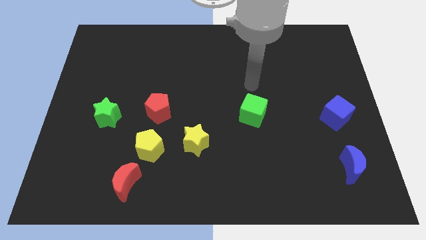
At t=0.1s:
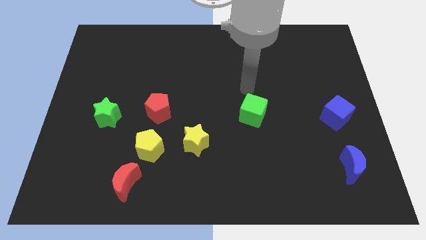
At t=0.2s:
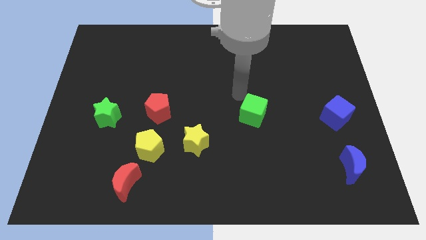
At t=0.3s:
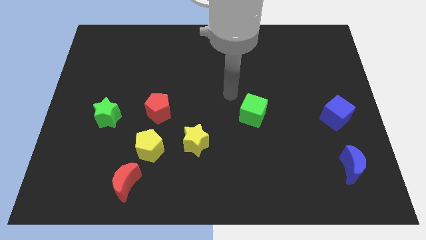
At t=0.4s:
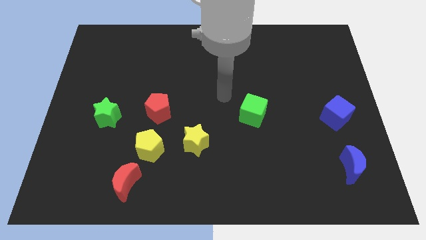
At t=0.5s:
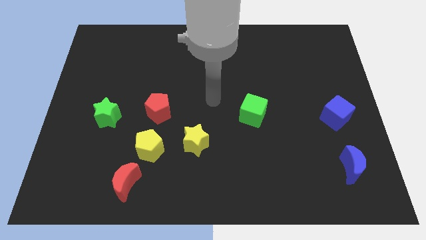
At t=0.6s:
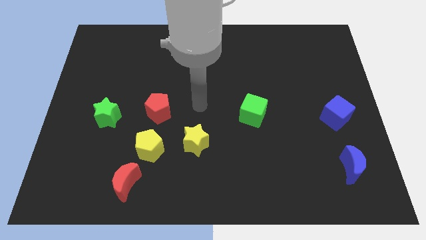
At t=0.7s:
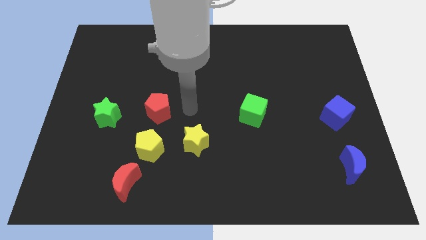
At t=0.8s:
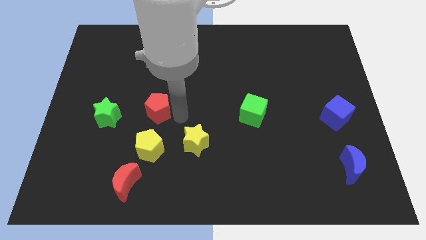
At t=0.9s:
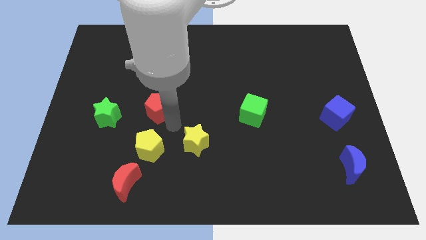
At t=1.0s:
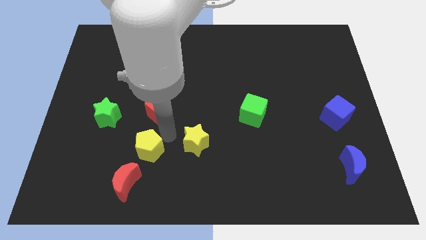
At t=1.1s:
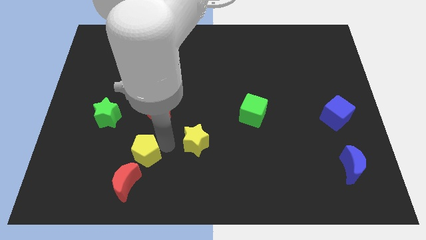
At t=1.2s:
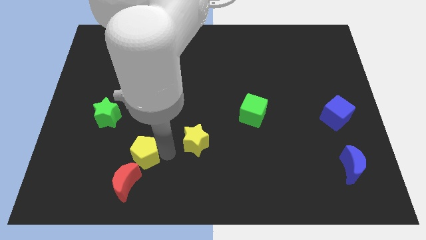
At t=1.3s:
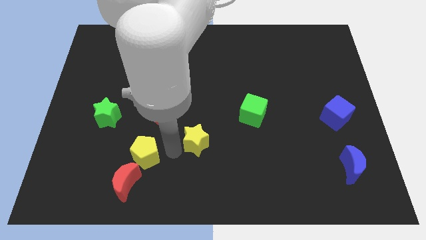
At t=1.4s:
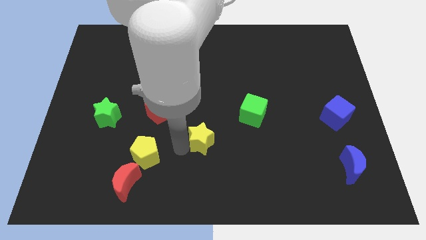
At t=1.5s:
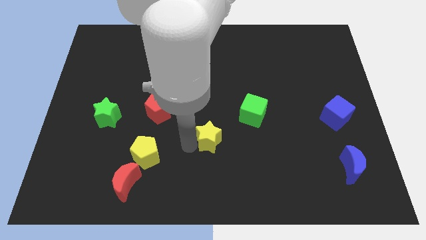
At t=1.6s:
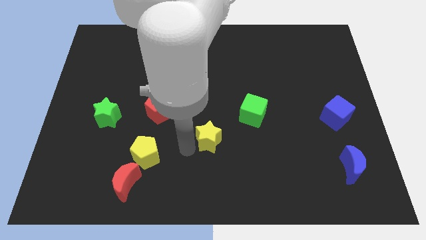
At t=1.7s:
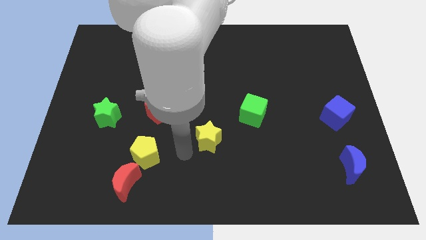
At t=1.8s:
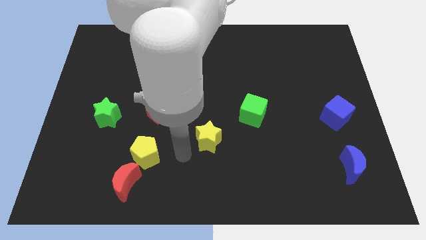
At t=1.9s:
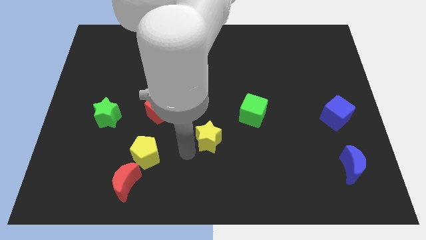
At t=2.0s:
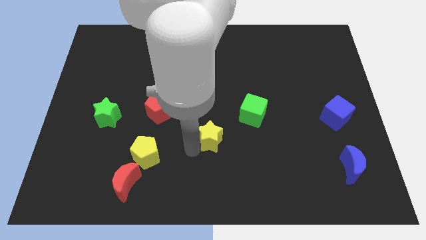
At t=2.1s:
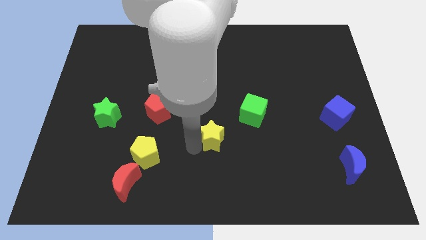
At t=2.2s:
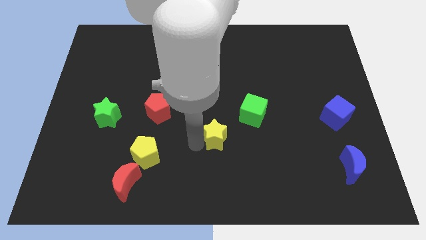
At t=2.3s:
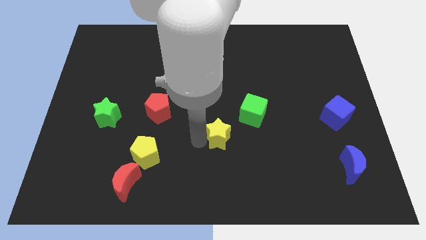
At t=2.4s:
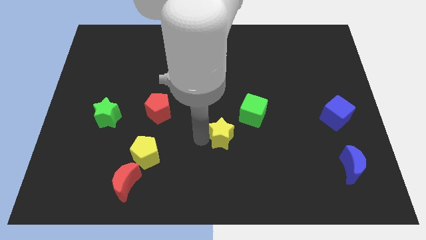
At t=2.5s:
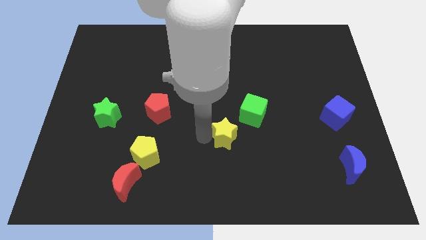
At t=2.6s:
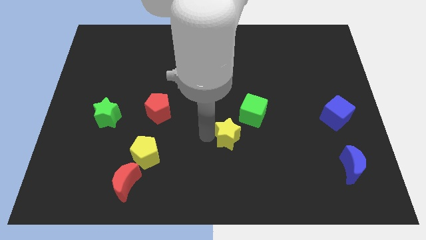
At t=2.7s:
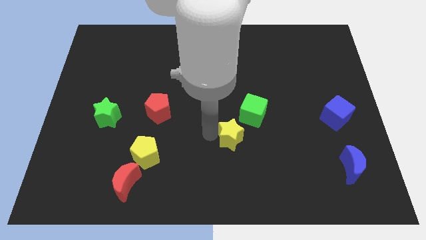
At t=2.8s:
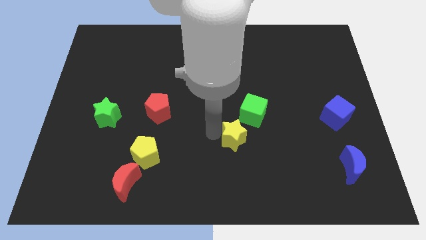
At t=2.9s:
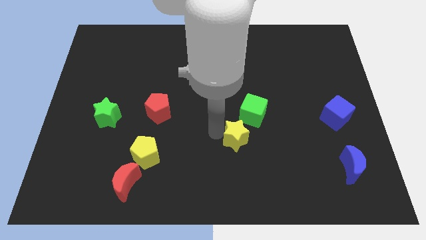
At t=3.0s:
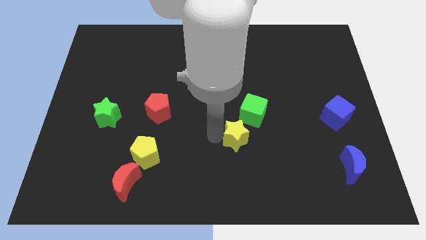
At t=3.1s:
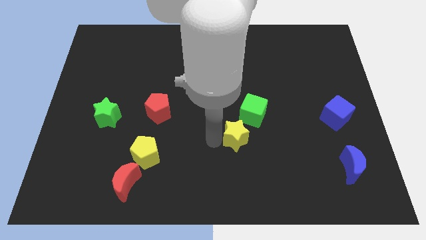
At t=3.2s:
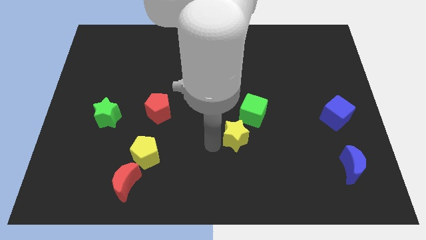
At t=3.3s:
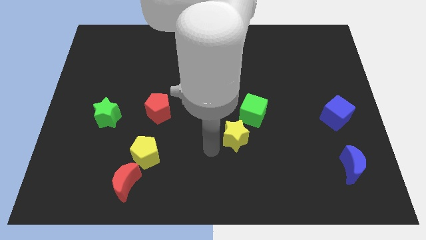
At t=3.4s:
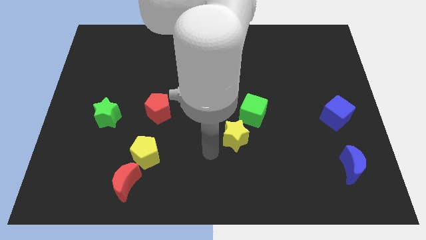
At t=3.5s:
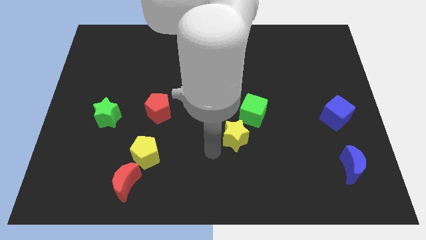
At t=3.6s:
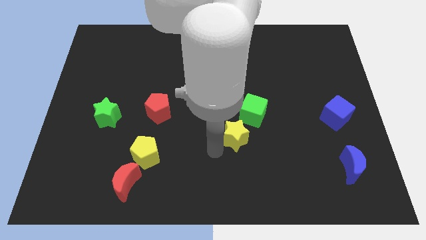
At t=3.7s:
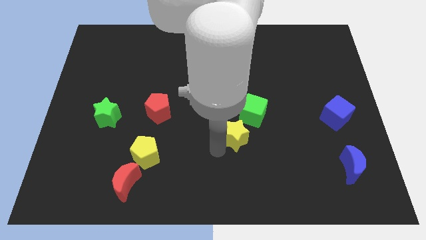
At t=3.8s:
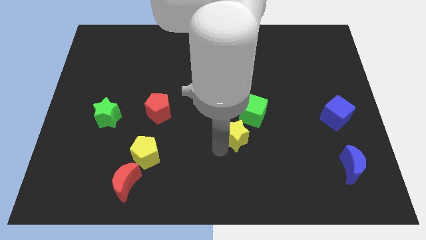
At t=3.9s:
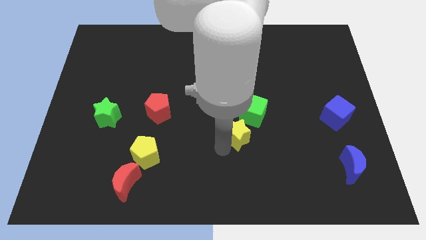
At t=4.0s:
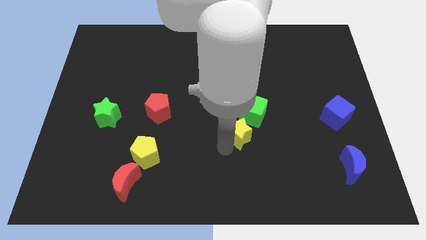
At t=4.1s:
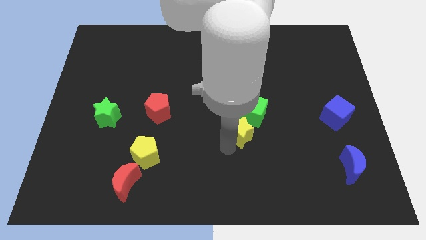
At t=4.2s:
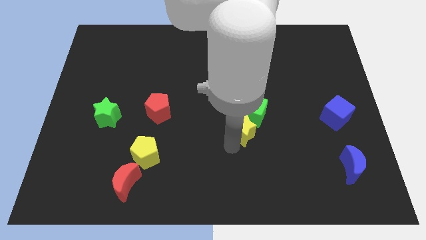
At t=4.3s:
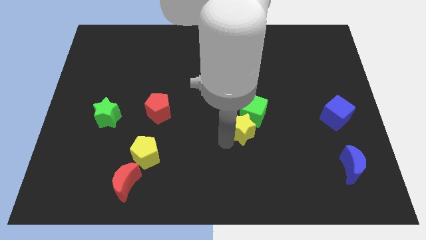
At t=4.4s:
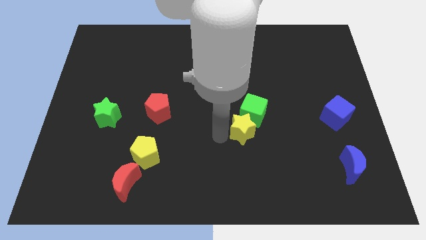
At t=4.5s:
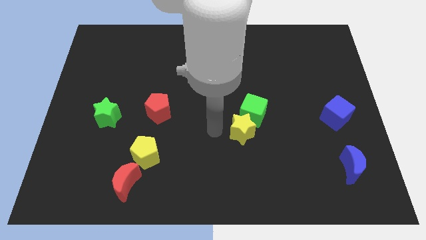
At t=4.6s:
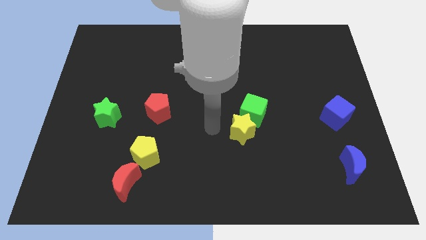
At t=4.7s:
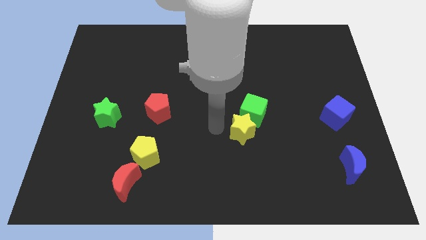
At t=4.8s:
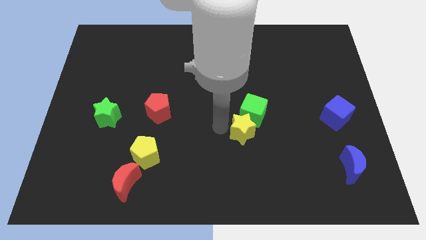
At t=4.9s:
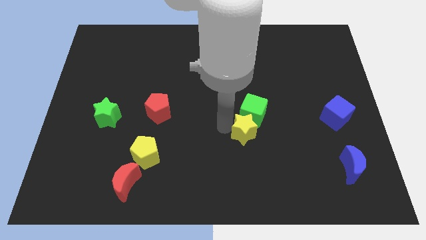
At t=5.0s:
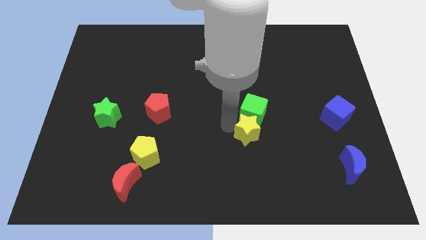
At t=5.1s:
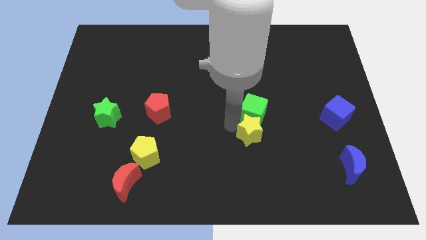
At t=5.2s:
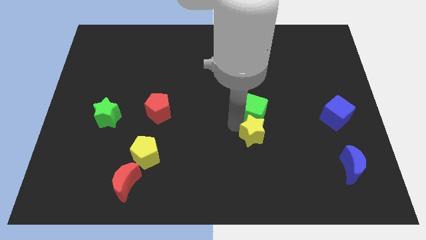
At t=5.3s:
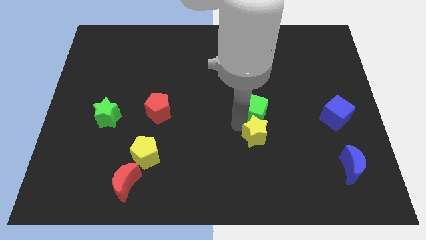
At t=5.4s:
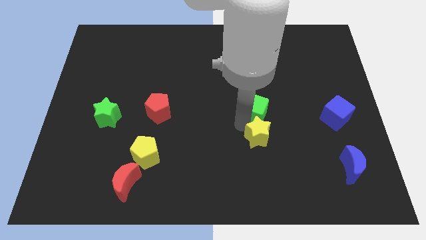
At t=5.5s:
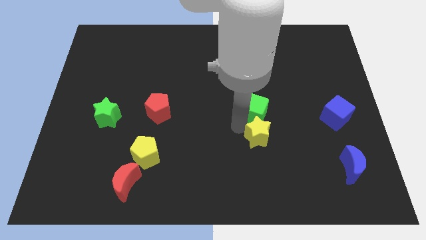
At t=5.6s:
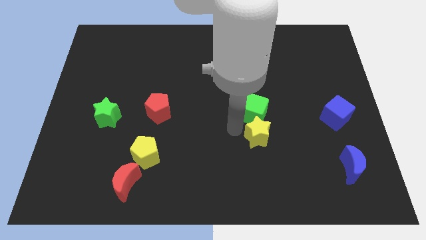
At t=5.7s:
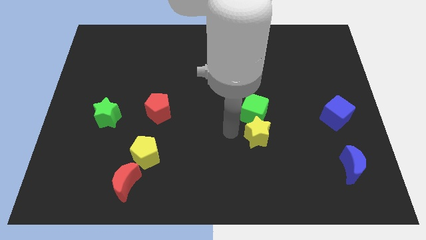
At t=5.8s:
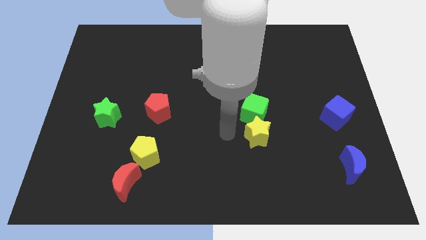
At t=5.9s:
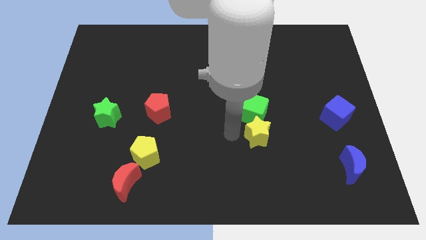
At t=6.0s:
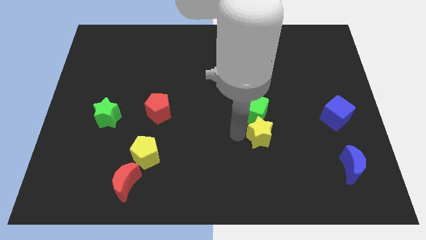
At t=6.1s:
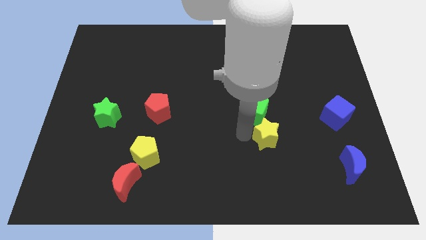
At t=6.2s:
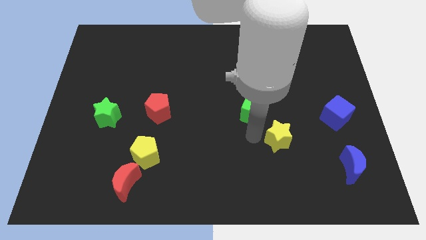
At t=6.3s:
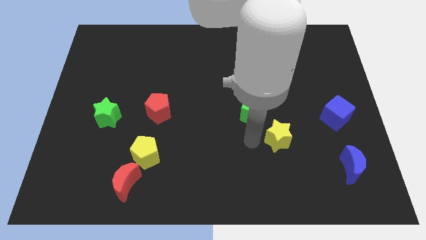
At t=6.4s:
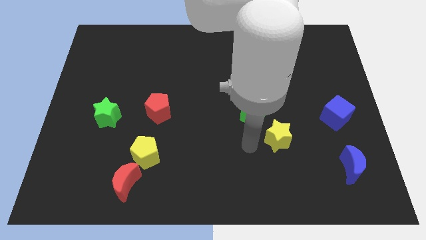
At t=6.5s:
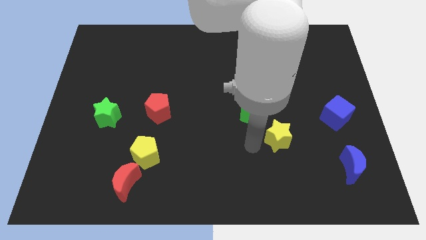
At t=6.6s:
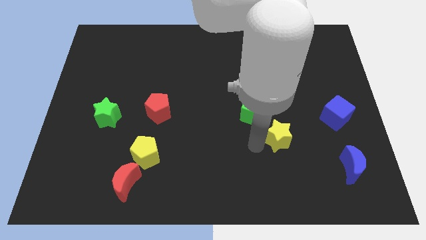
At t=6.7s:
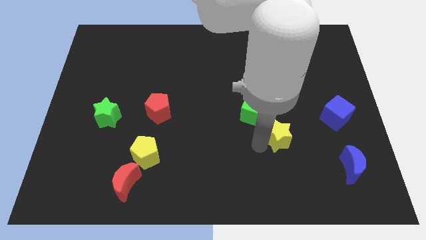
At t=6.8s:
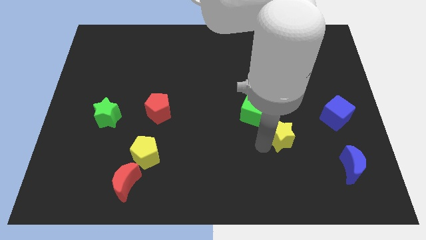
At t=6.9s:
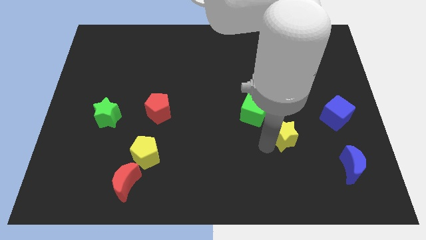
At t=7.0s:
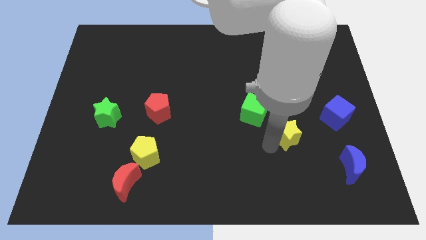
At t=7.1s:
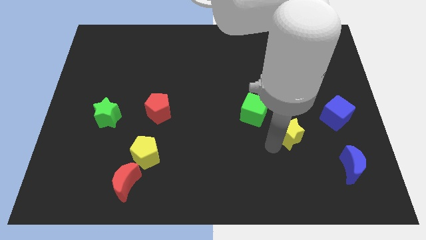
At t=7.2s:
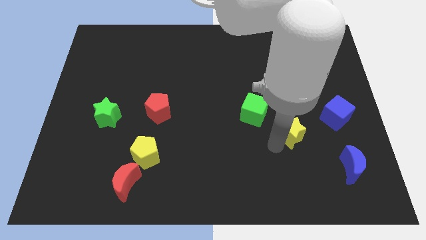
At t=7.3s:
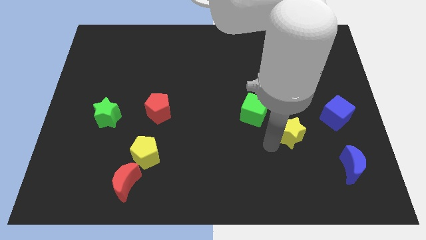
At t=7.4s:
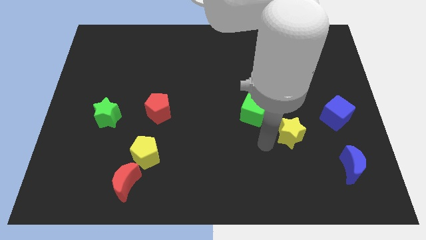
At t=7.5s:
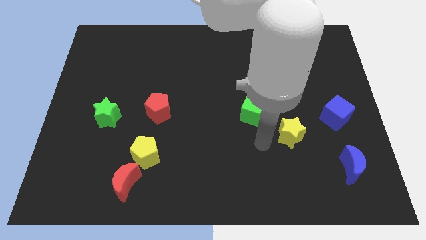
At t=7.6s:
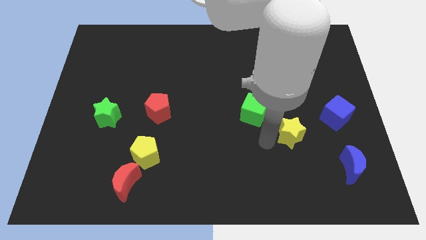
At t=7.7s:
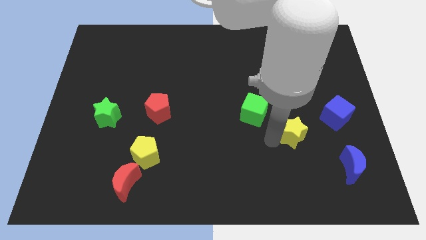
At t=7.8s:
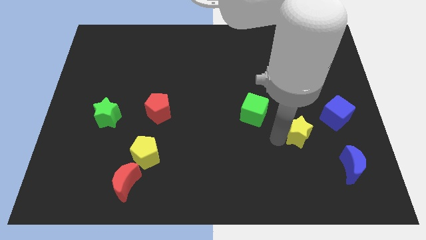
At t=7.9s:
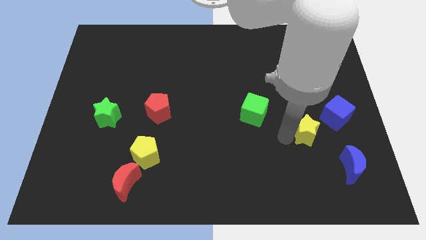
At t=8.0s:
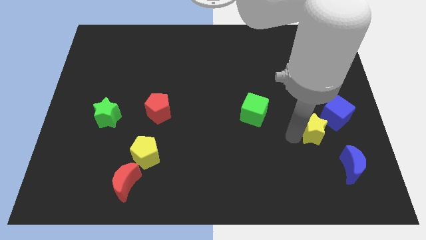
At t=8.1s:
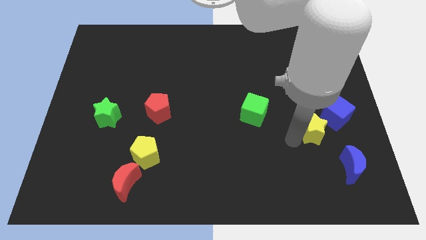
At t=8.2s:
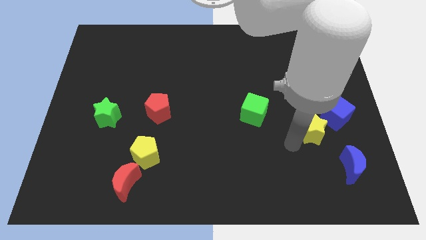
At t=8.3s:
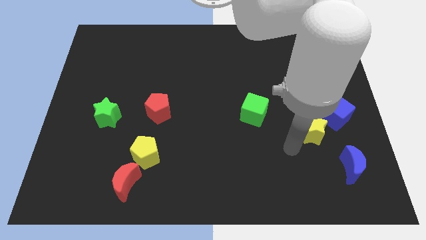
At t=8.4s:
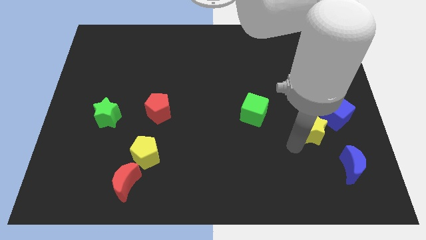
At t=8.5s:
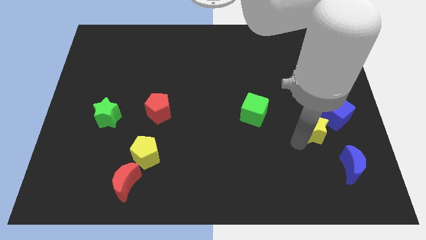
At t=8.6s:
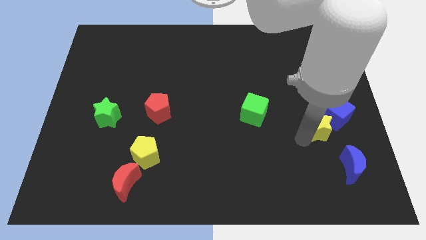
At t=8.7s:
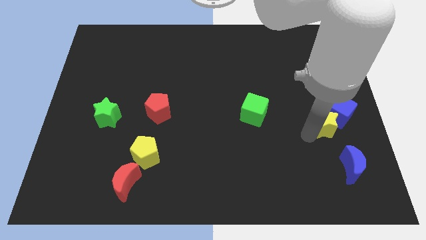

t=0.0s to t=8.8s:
slide the yellow star close to the blue cube
